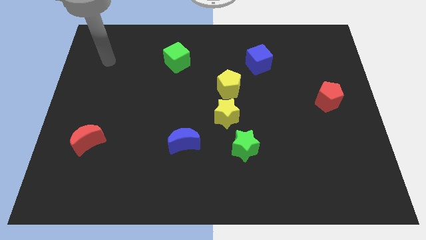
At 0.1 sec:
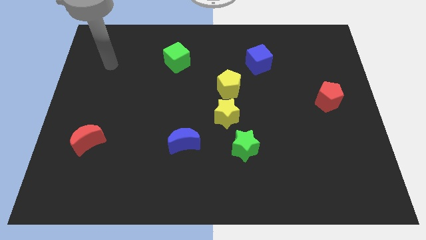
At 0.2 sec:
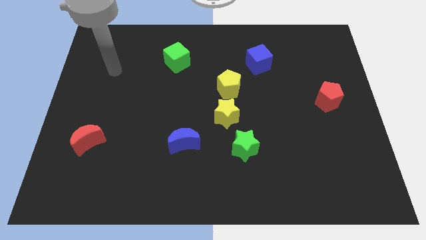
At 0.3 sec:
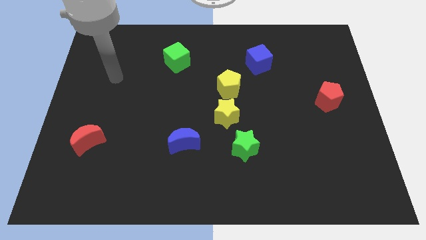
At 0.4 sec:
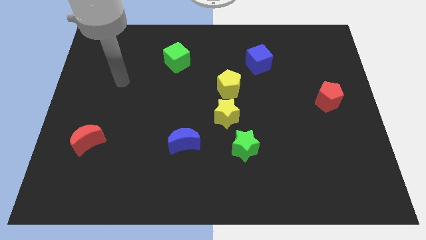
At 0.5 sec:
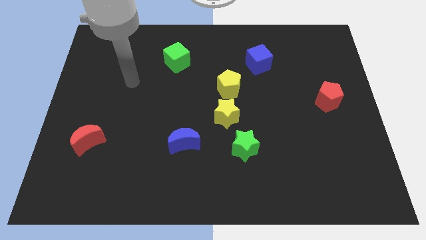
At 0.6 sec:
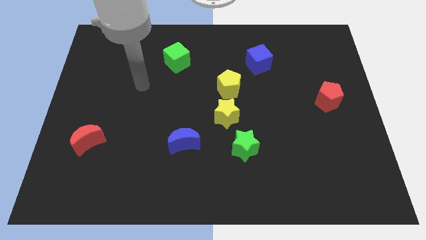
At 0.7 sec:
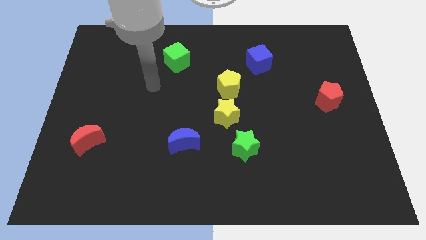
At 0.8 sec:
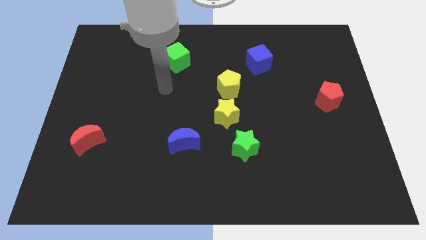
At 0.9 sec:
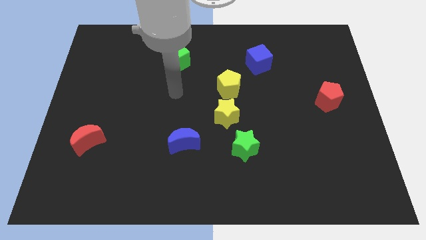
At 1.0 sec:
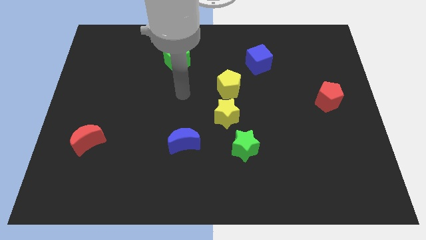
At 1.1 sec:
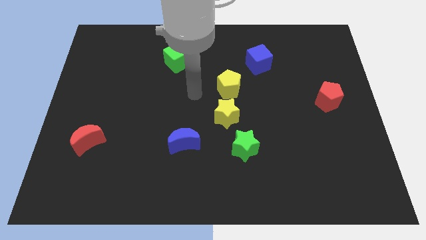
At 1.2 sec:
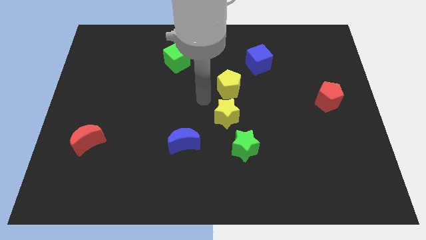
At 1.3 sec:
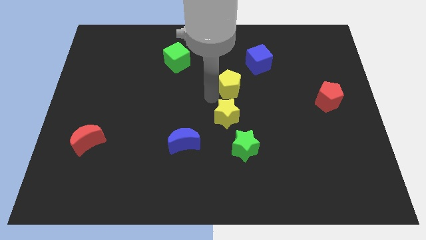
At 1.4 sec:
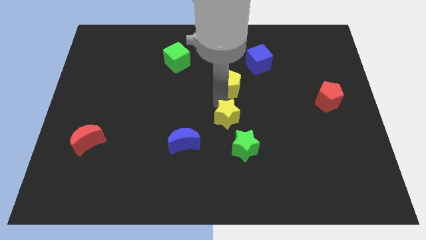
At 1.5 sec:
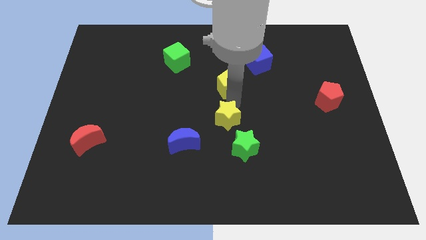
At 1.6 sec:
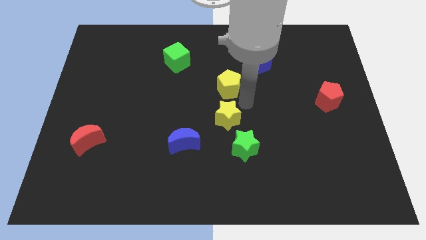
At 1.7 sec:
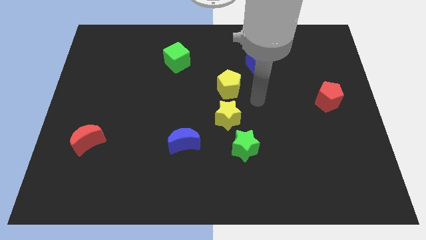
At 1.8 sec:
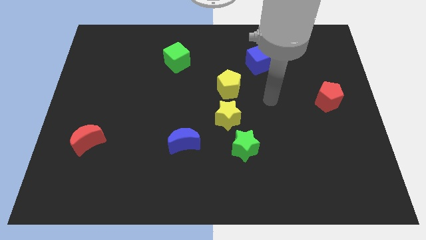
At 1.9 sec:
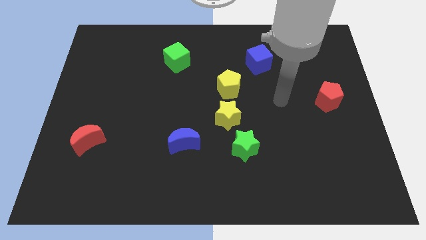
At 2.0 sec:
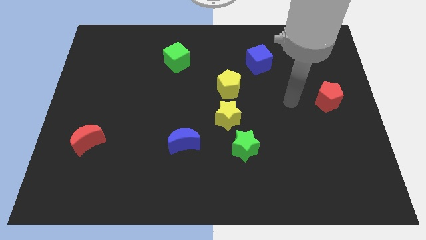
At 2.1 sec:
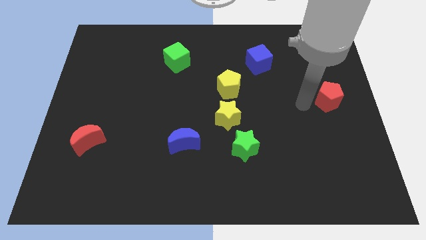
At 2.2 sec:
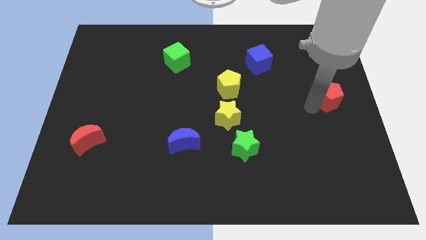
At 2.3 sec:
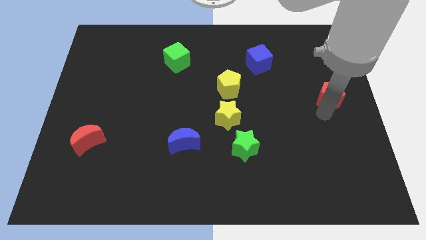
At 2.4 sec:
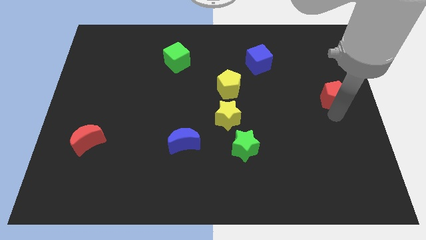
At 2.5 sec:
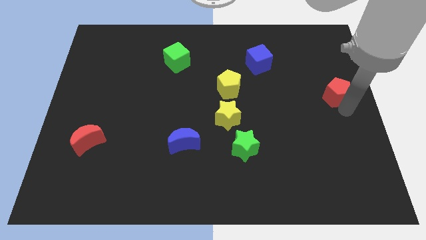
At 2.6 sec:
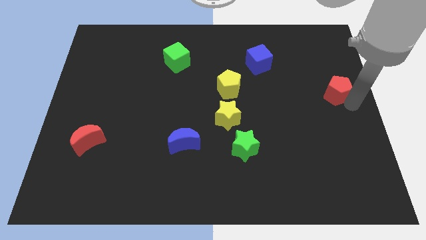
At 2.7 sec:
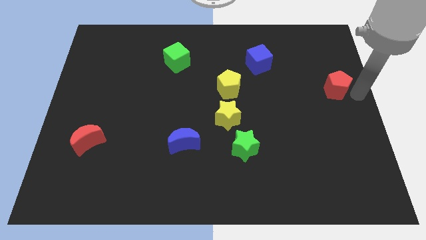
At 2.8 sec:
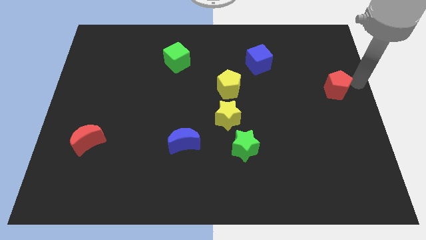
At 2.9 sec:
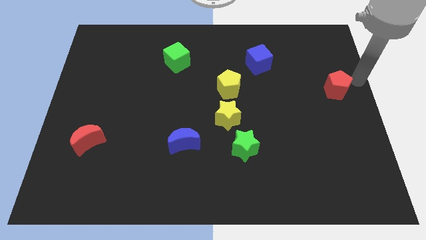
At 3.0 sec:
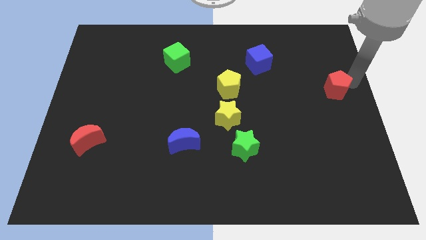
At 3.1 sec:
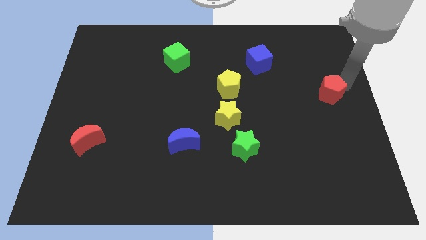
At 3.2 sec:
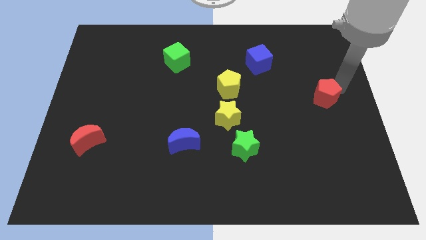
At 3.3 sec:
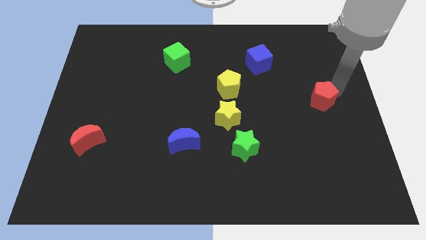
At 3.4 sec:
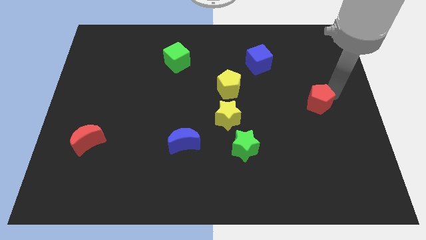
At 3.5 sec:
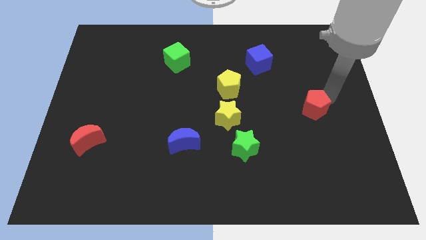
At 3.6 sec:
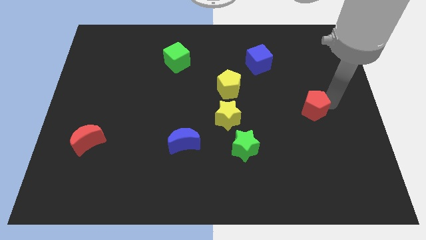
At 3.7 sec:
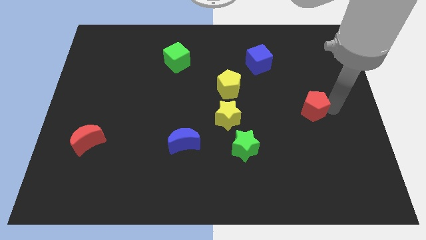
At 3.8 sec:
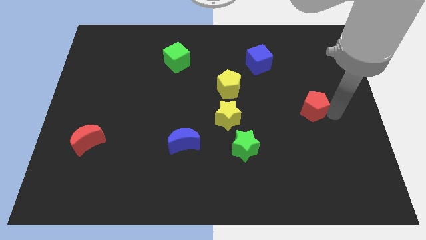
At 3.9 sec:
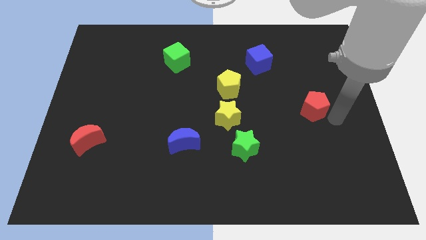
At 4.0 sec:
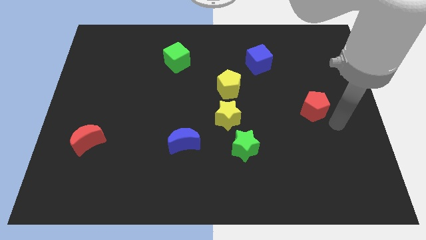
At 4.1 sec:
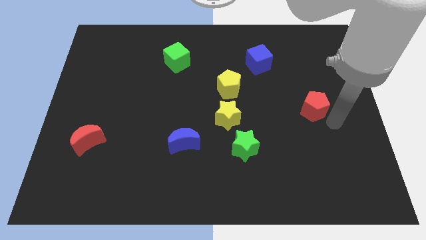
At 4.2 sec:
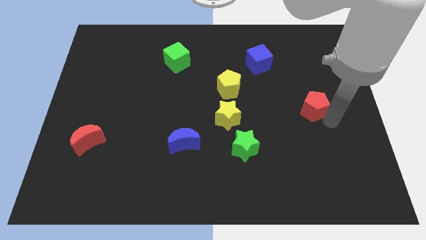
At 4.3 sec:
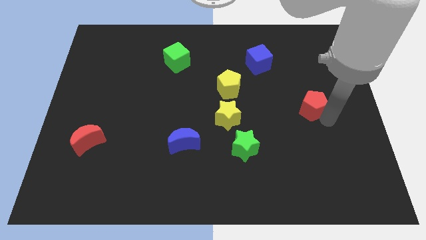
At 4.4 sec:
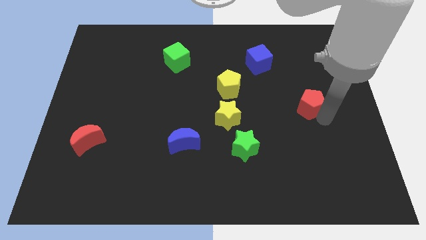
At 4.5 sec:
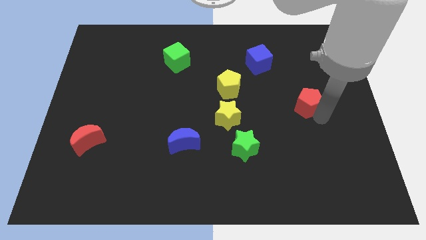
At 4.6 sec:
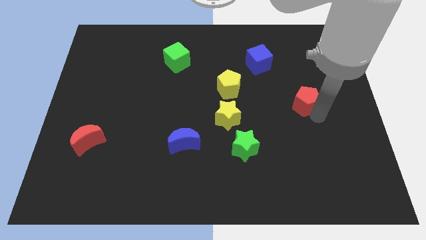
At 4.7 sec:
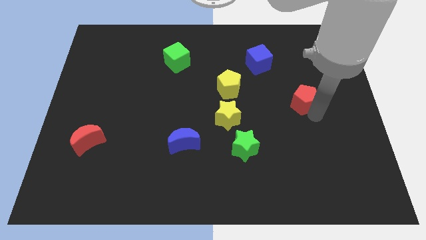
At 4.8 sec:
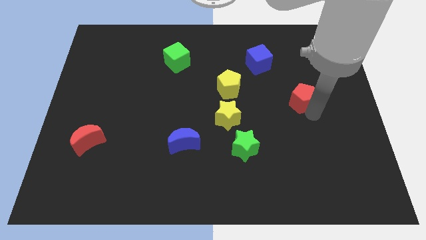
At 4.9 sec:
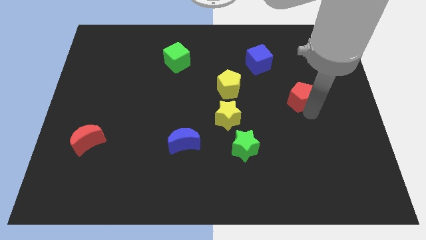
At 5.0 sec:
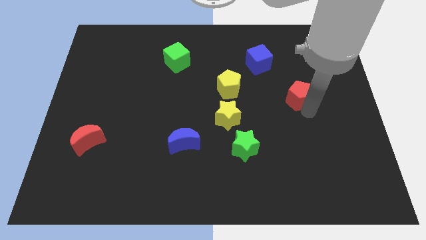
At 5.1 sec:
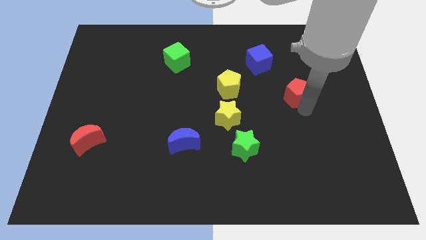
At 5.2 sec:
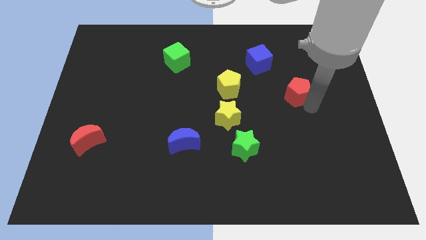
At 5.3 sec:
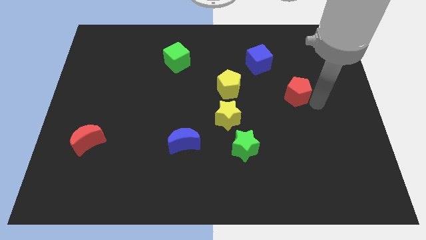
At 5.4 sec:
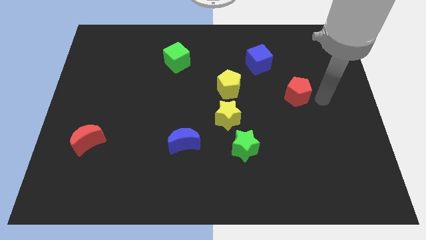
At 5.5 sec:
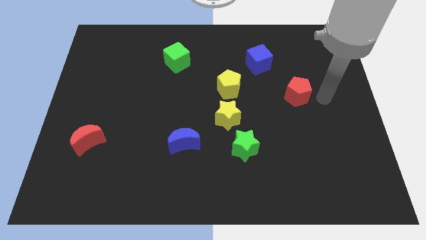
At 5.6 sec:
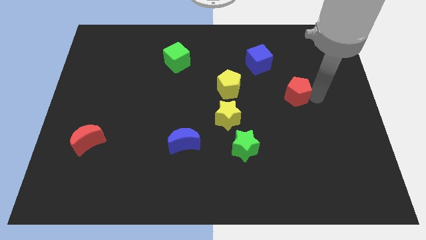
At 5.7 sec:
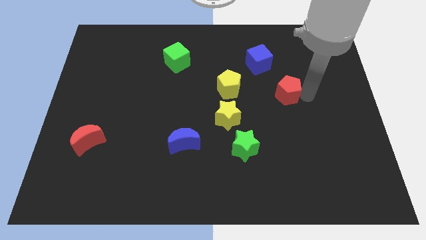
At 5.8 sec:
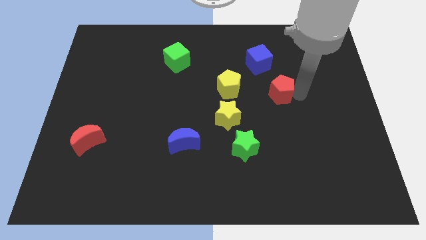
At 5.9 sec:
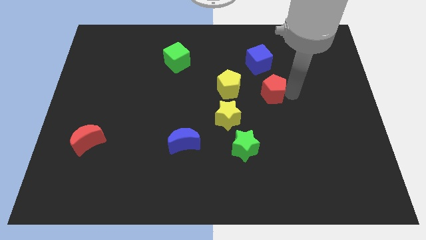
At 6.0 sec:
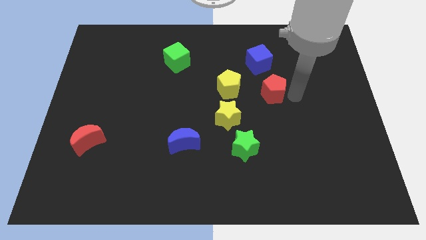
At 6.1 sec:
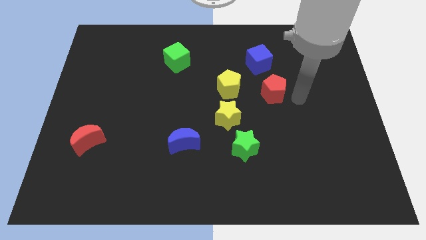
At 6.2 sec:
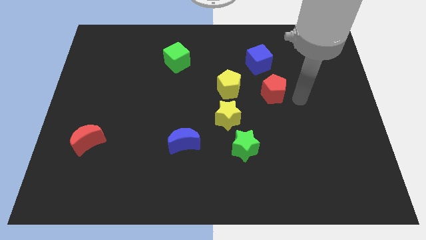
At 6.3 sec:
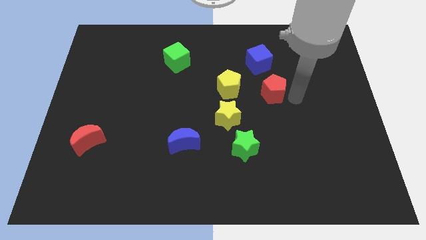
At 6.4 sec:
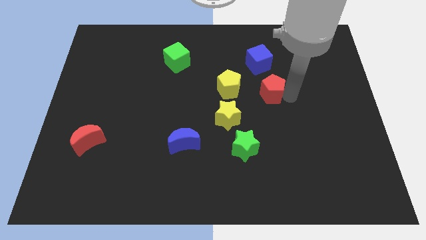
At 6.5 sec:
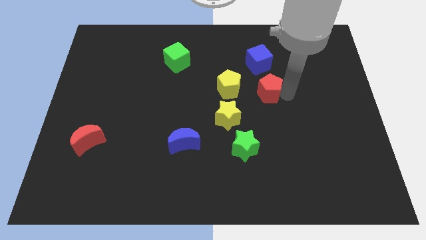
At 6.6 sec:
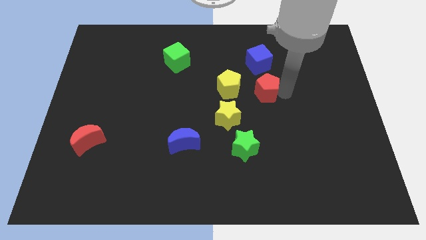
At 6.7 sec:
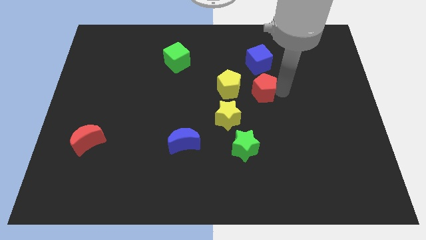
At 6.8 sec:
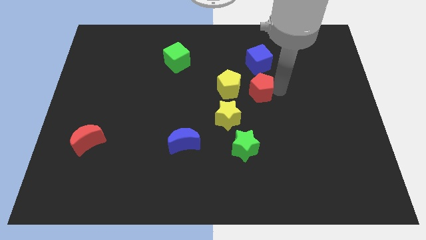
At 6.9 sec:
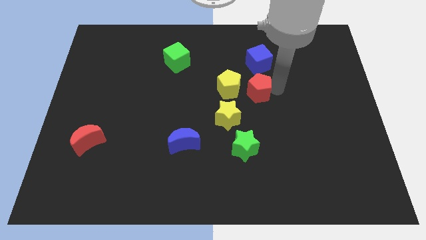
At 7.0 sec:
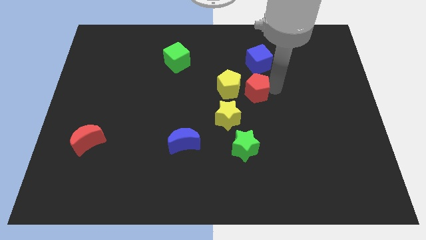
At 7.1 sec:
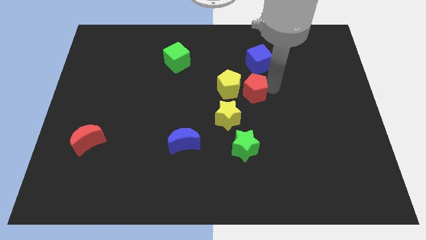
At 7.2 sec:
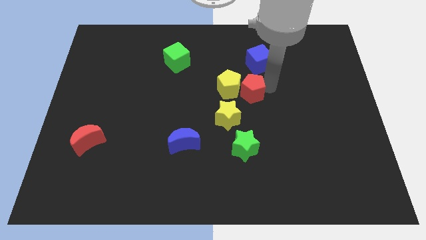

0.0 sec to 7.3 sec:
slide the red pentagon towards the yellow pentagon
